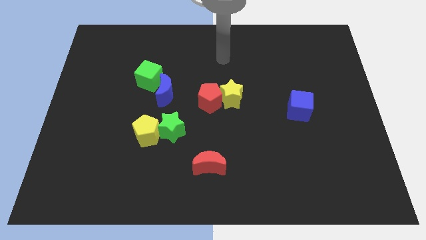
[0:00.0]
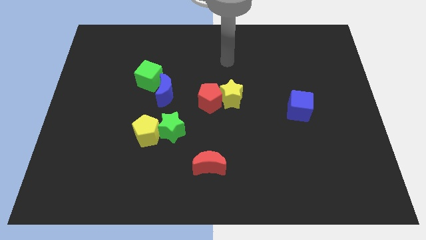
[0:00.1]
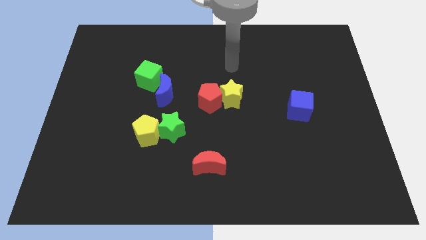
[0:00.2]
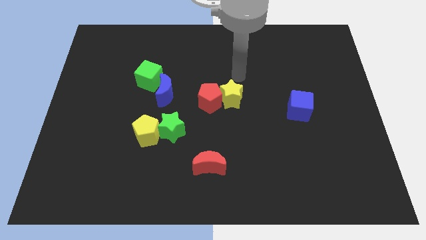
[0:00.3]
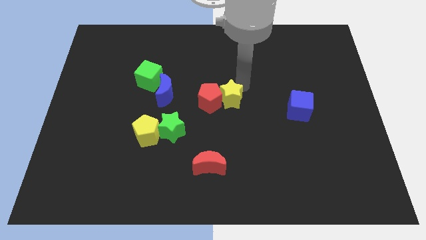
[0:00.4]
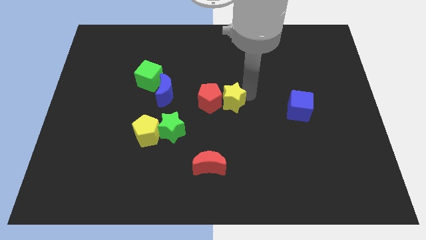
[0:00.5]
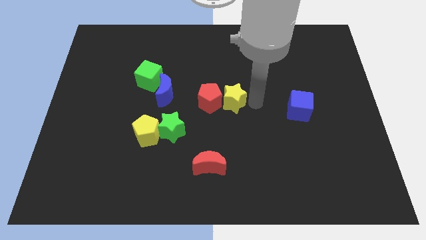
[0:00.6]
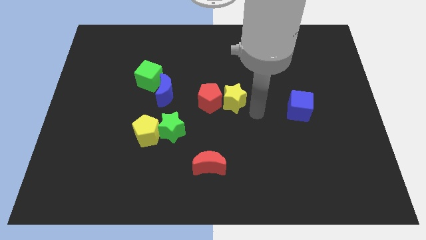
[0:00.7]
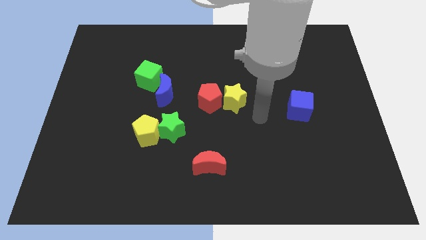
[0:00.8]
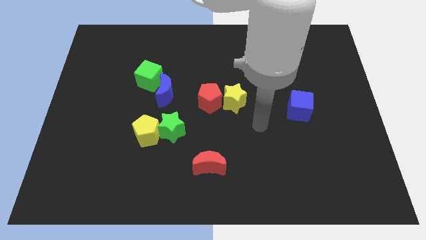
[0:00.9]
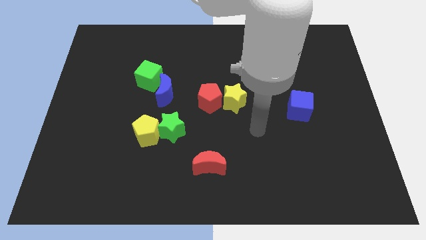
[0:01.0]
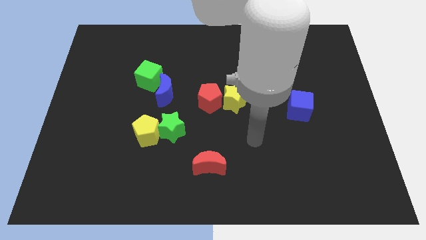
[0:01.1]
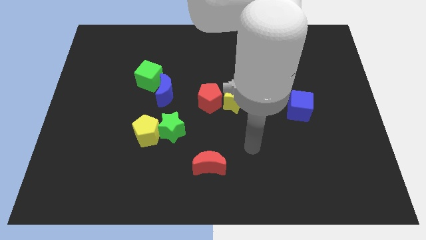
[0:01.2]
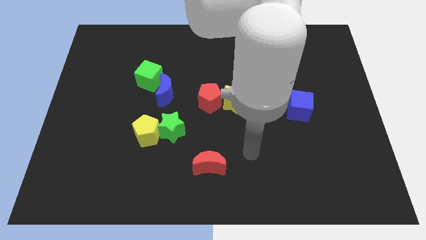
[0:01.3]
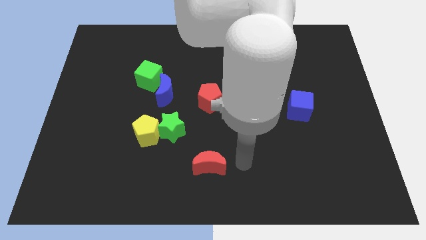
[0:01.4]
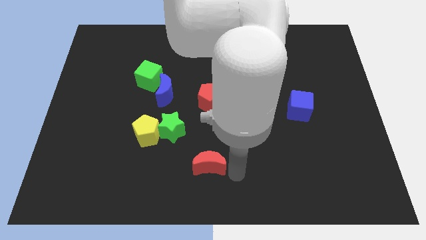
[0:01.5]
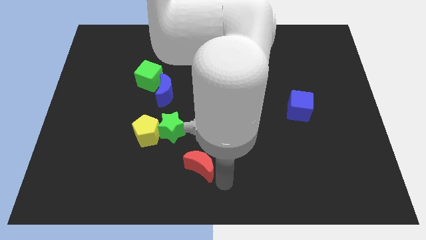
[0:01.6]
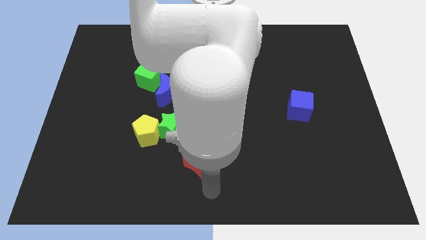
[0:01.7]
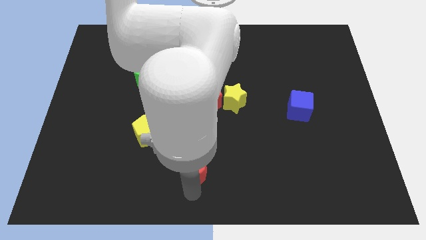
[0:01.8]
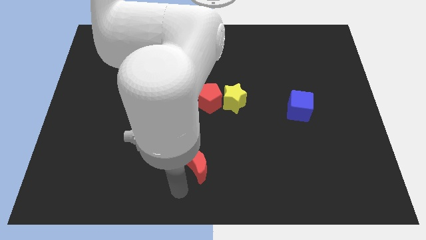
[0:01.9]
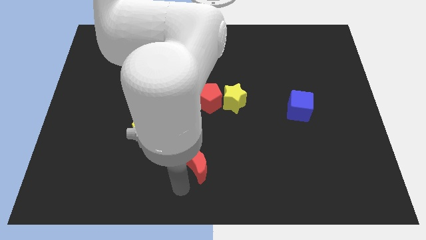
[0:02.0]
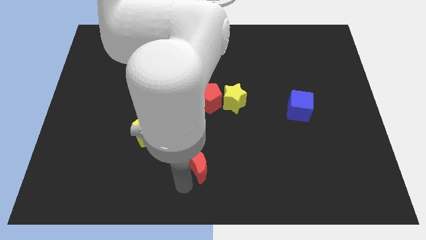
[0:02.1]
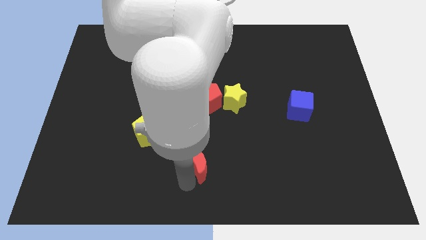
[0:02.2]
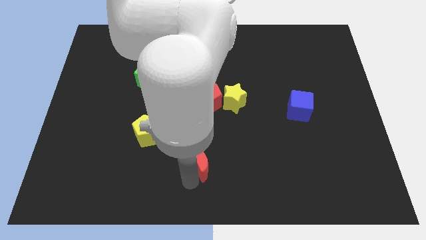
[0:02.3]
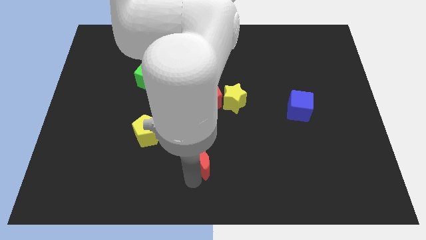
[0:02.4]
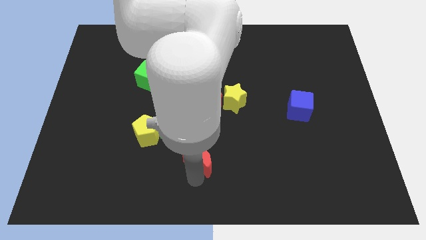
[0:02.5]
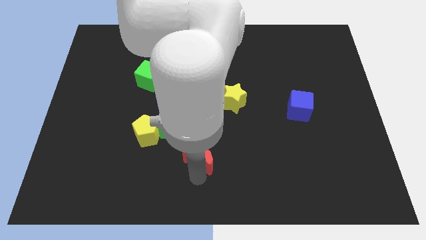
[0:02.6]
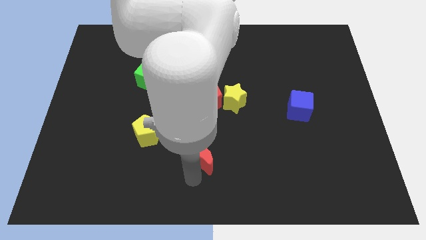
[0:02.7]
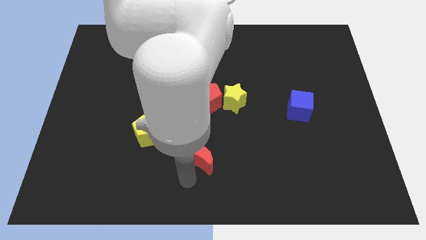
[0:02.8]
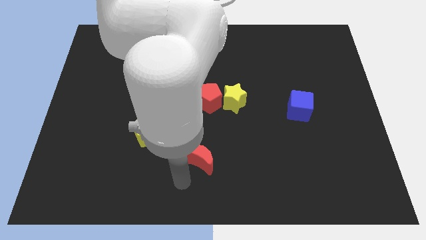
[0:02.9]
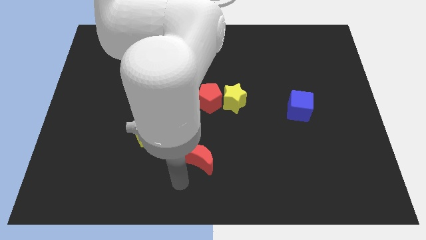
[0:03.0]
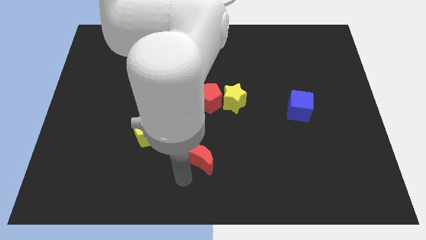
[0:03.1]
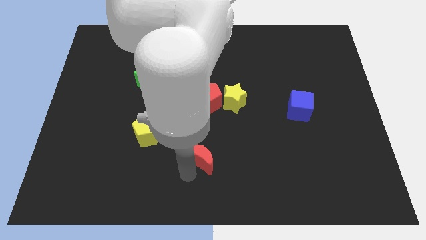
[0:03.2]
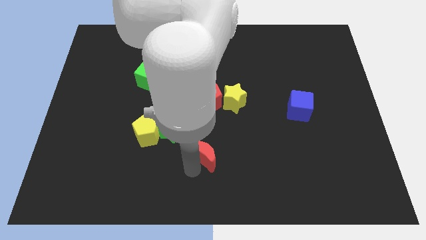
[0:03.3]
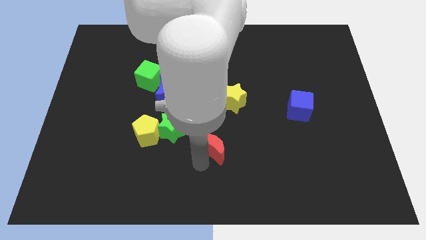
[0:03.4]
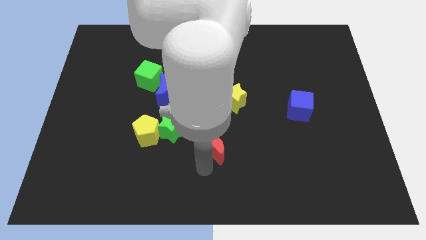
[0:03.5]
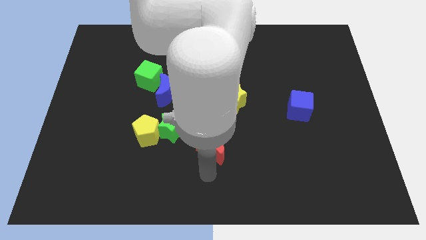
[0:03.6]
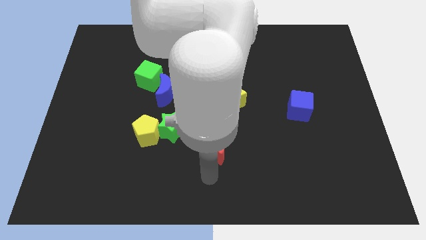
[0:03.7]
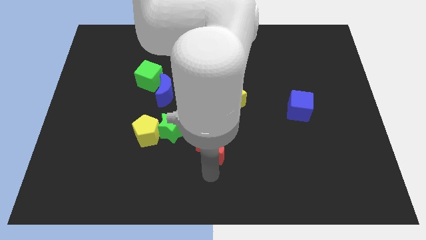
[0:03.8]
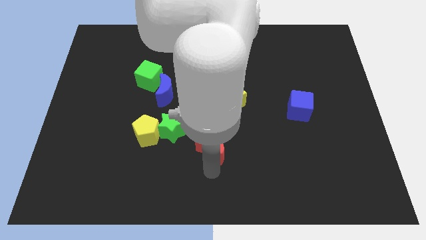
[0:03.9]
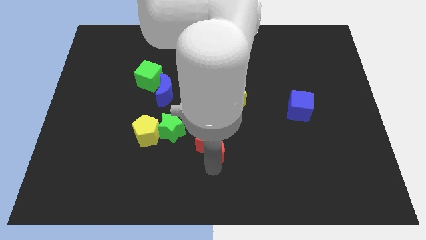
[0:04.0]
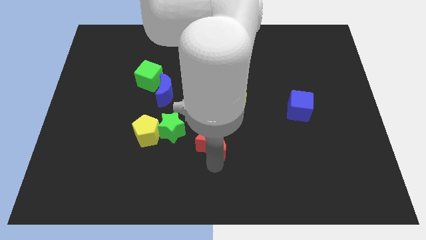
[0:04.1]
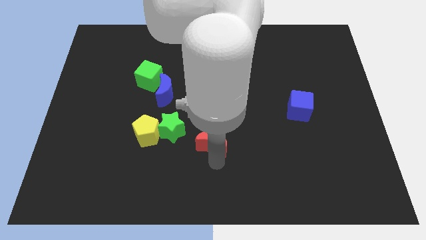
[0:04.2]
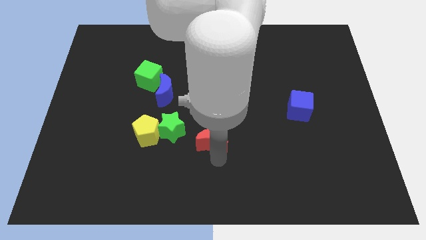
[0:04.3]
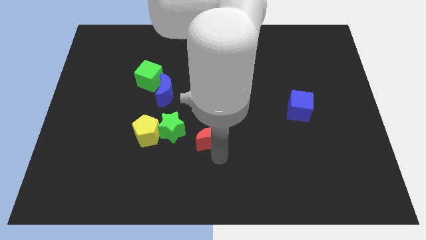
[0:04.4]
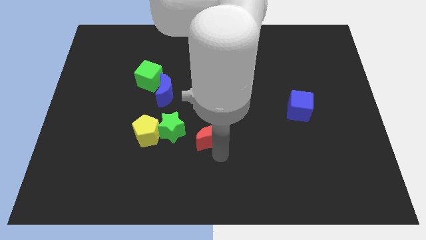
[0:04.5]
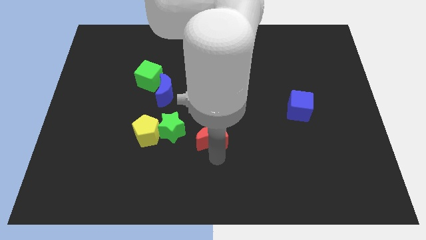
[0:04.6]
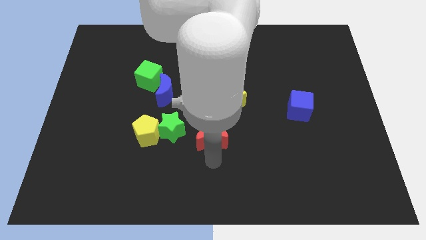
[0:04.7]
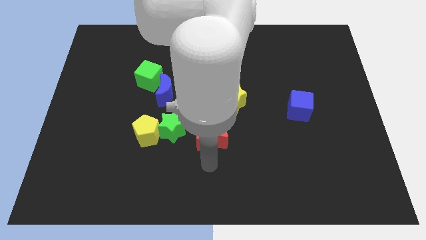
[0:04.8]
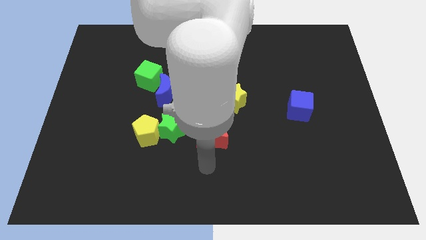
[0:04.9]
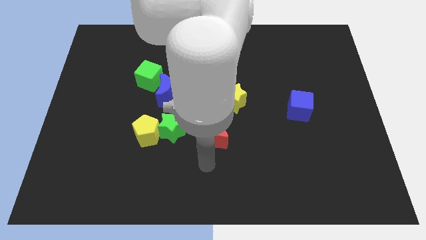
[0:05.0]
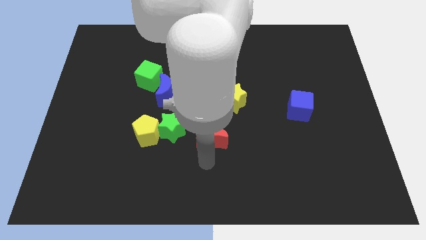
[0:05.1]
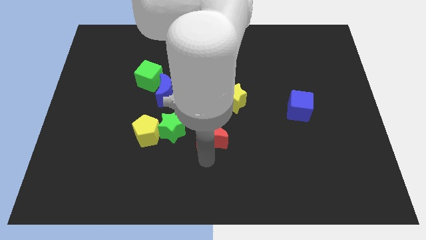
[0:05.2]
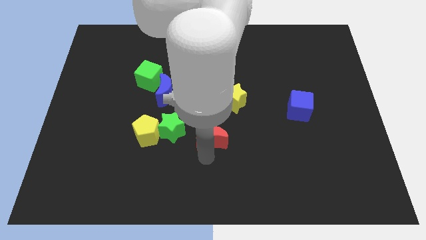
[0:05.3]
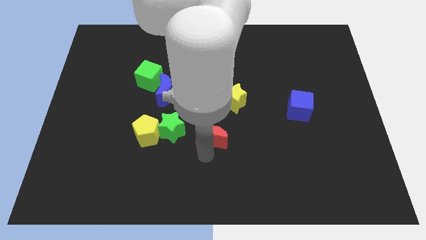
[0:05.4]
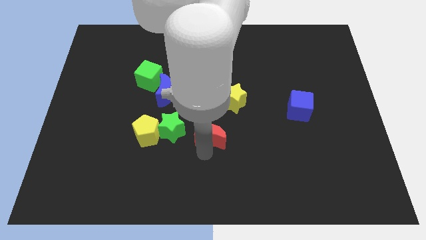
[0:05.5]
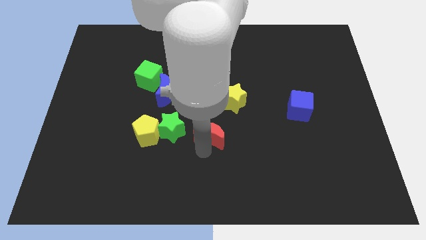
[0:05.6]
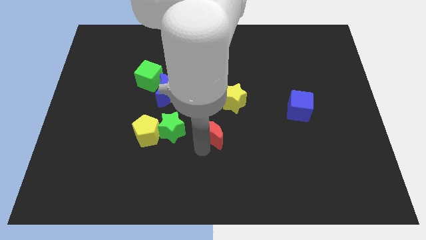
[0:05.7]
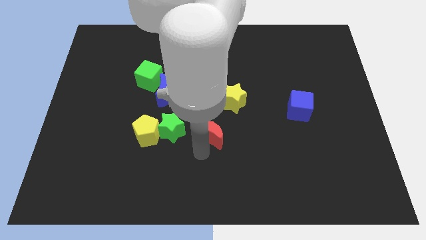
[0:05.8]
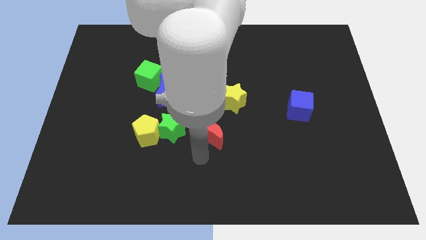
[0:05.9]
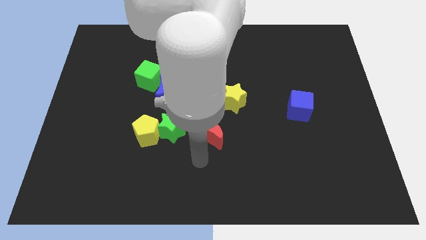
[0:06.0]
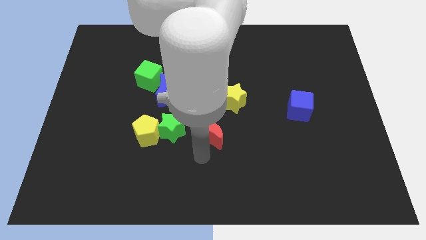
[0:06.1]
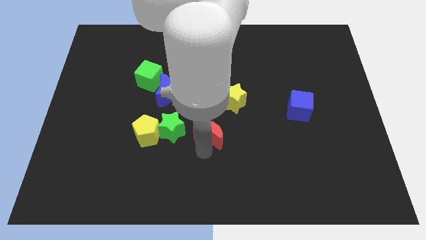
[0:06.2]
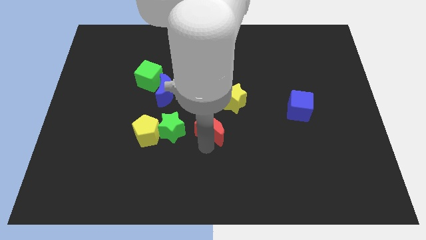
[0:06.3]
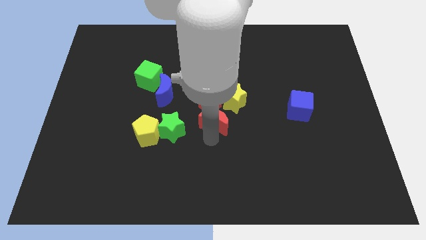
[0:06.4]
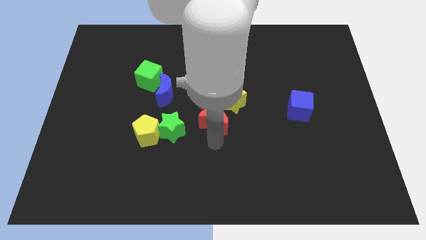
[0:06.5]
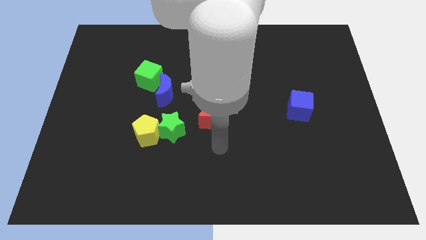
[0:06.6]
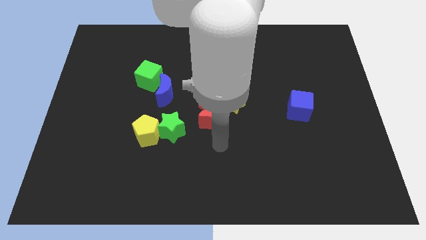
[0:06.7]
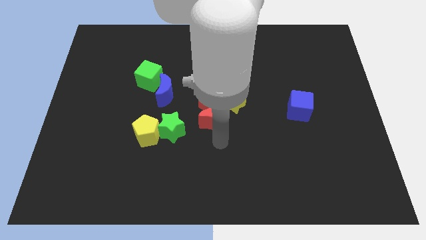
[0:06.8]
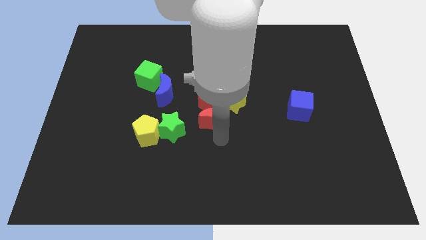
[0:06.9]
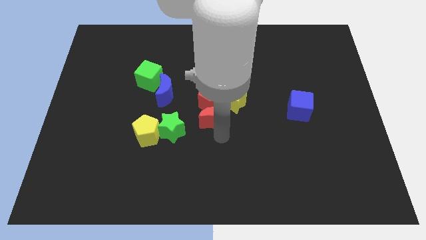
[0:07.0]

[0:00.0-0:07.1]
push the red moon to the red pentagon
